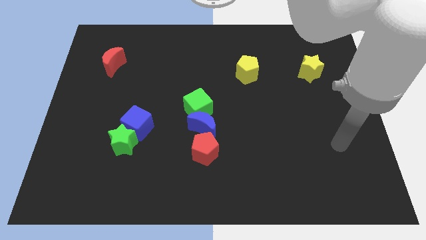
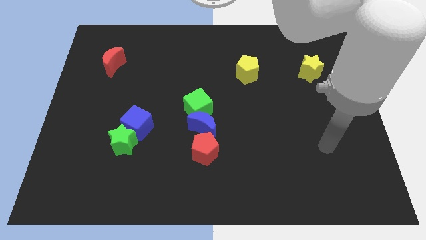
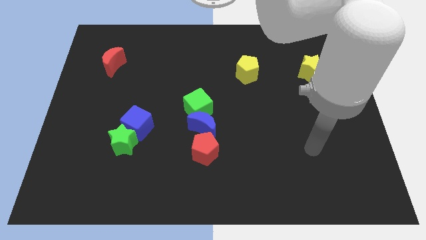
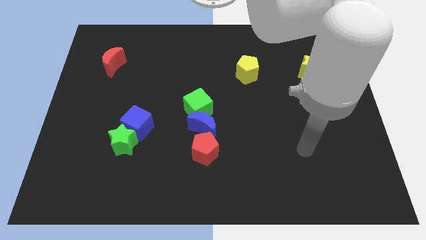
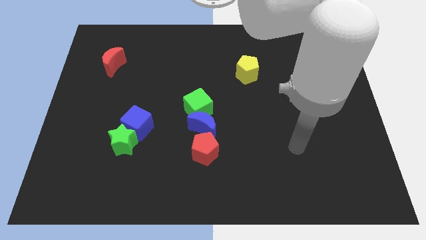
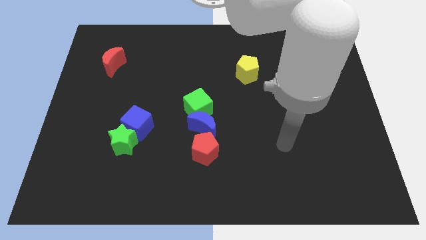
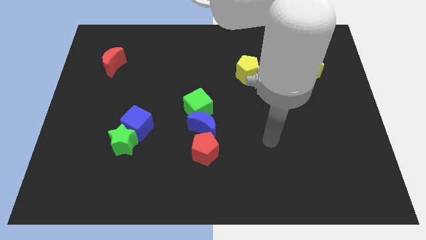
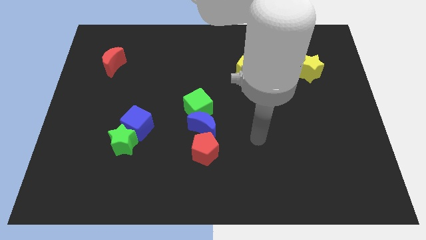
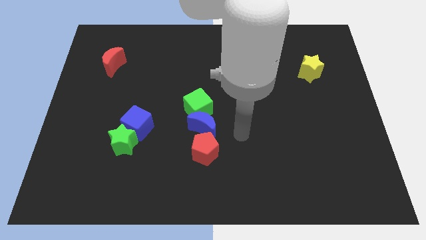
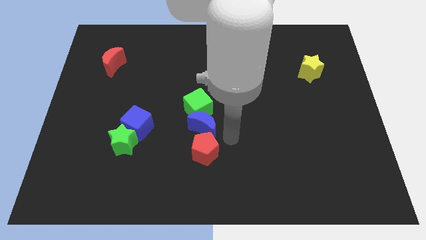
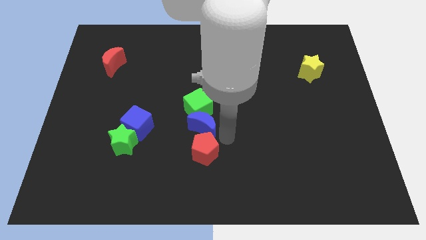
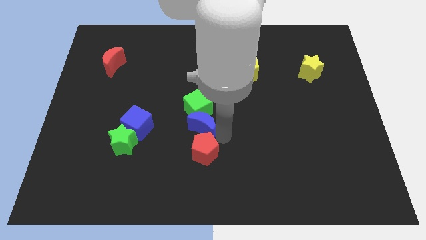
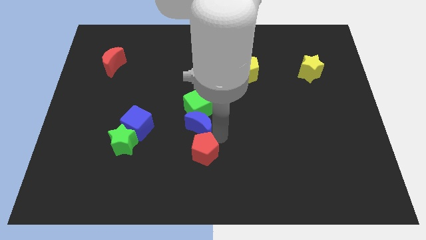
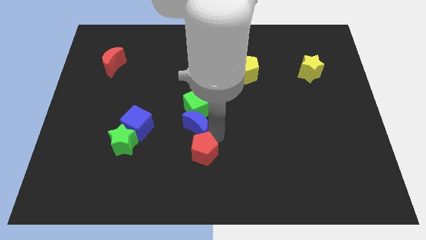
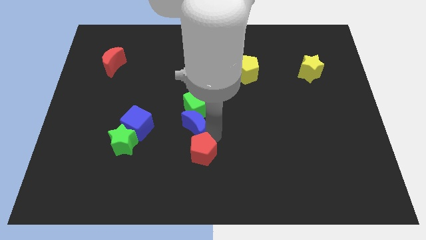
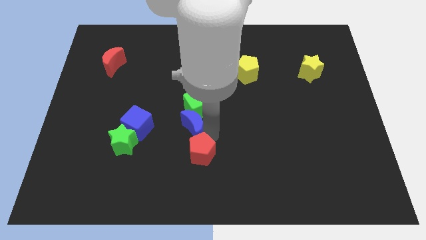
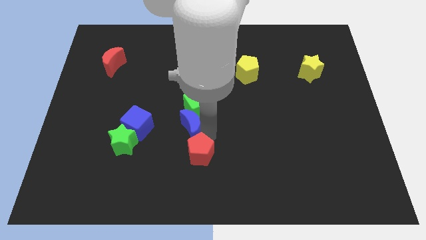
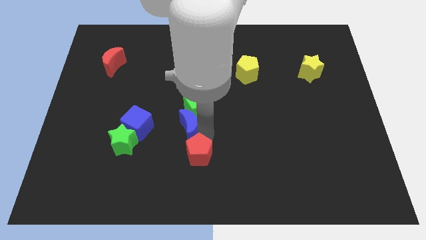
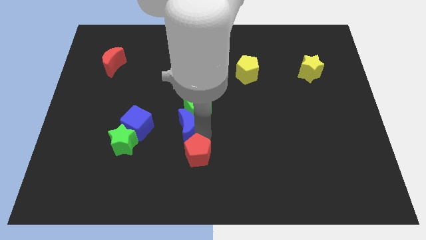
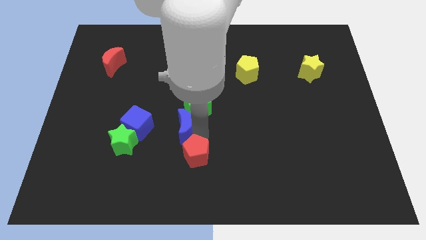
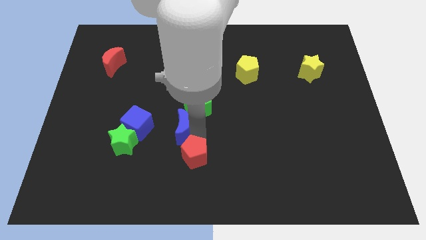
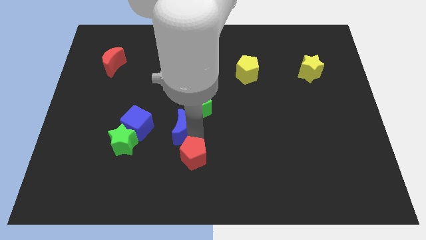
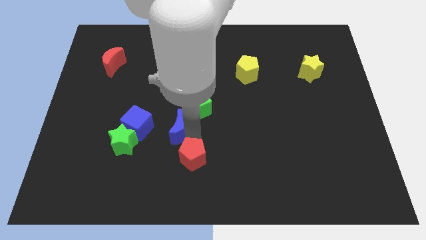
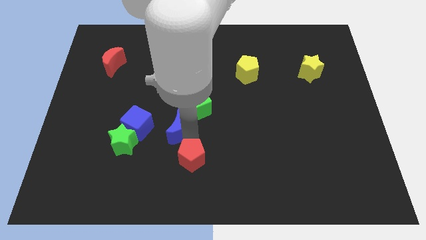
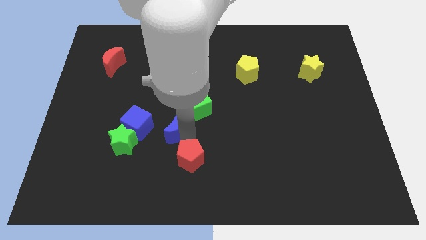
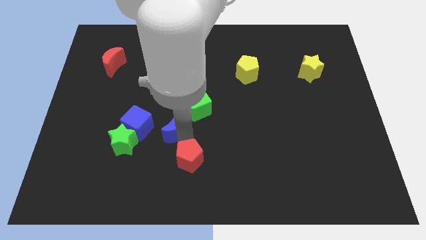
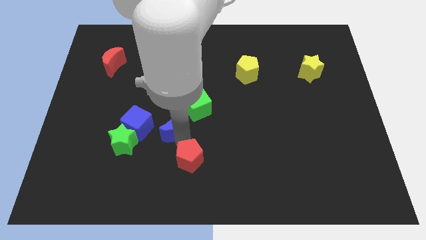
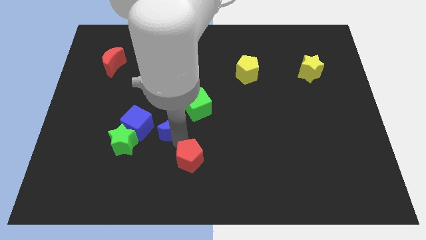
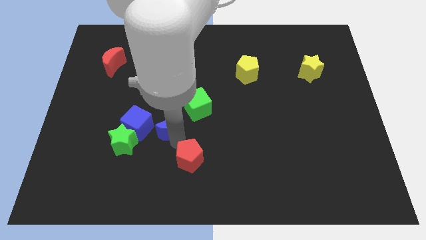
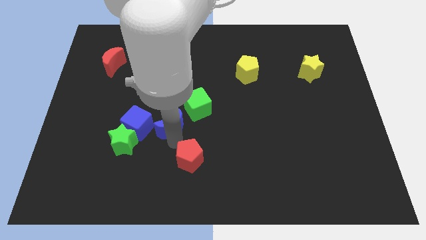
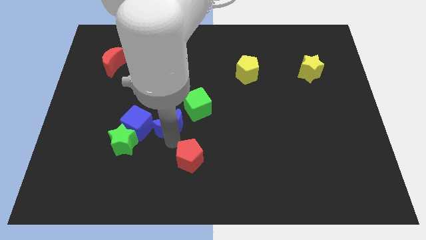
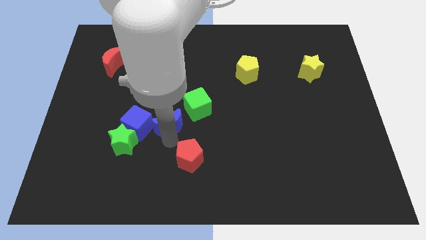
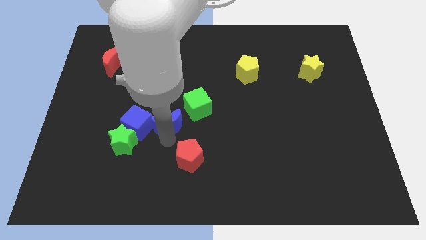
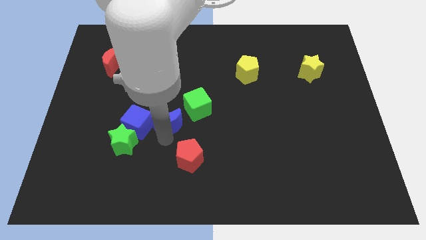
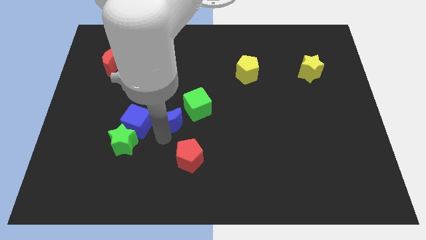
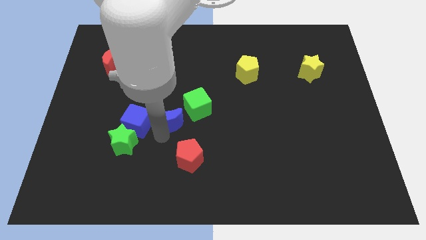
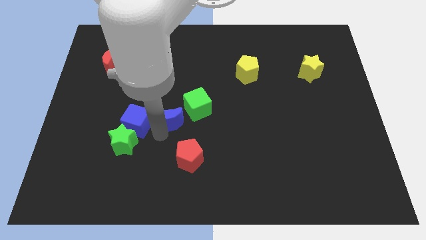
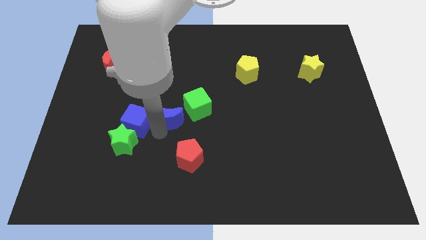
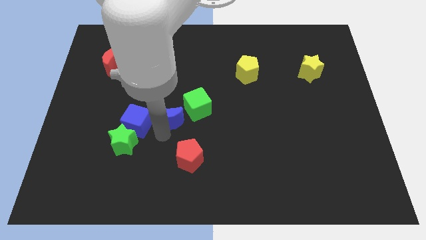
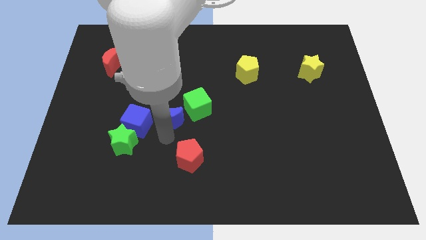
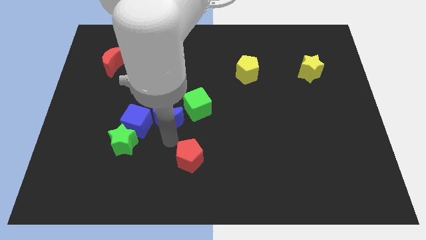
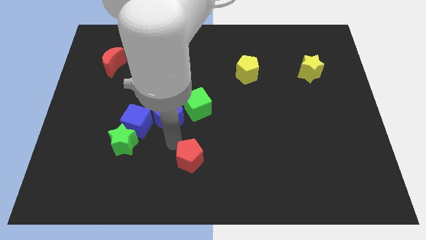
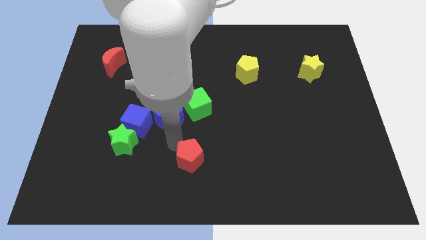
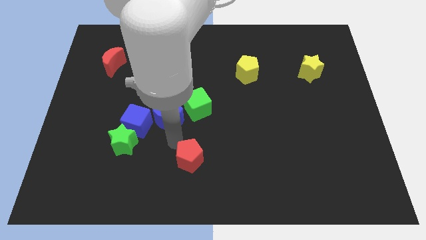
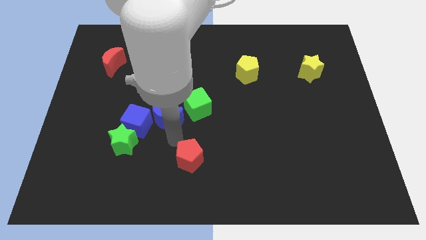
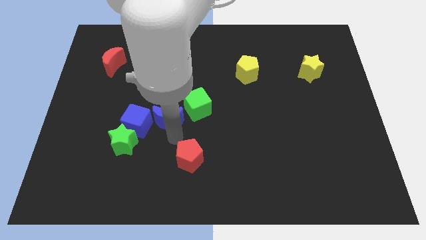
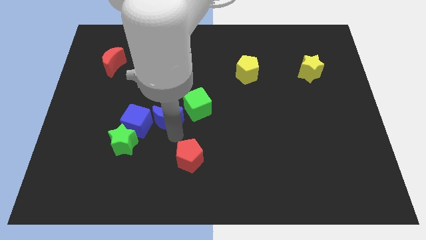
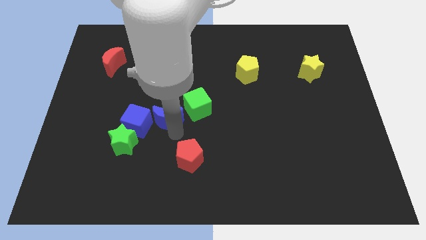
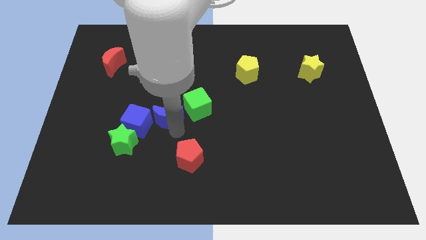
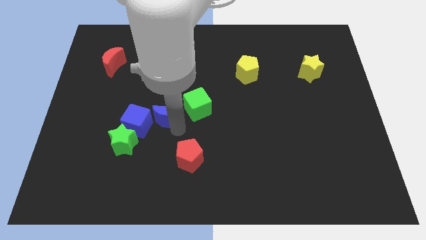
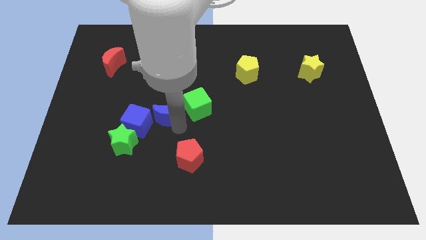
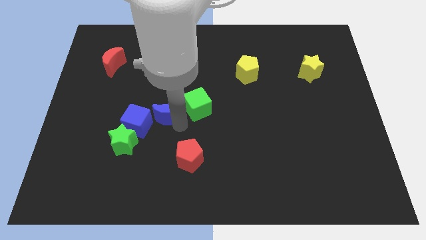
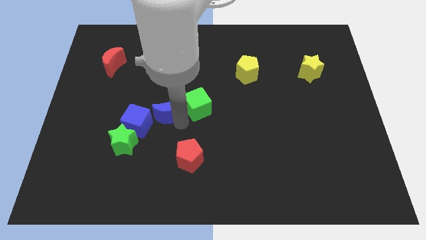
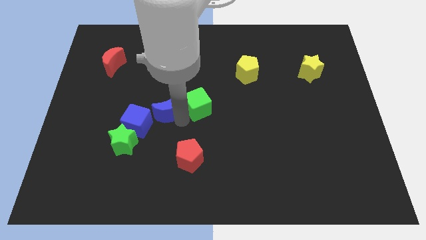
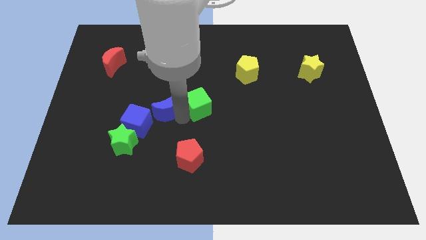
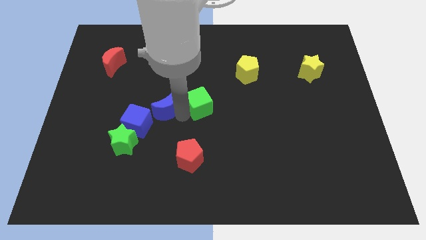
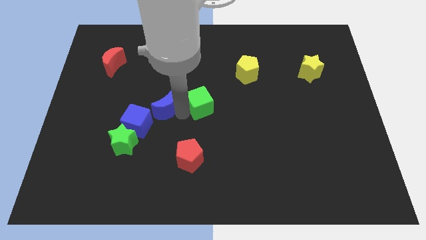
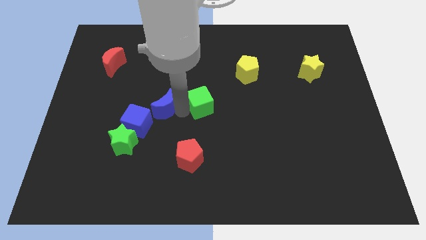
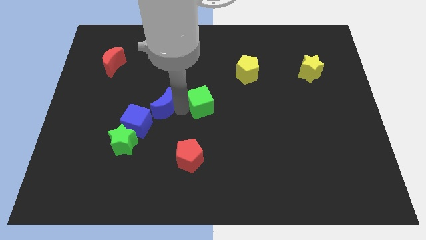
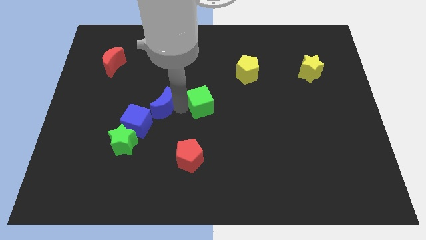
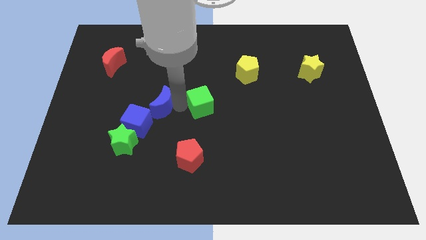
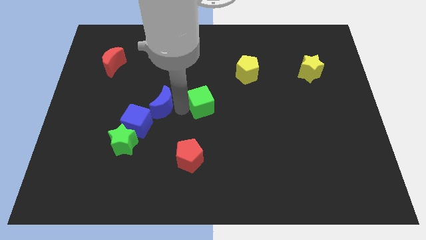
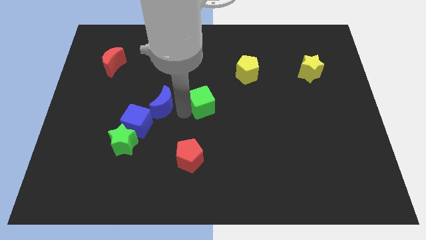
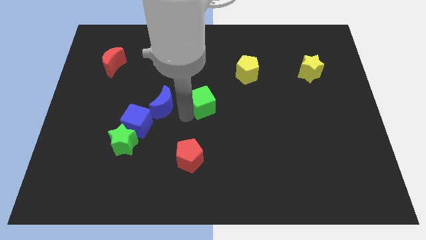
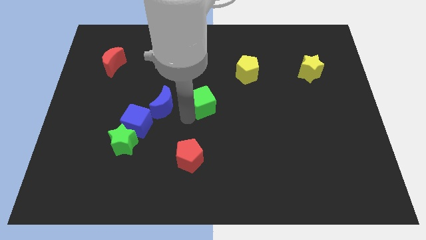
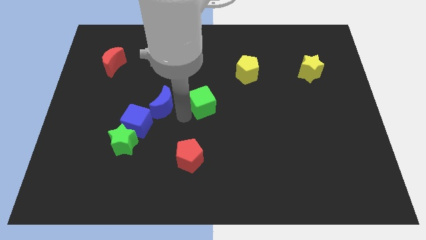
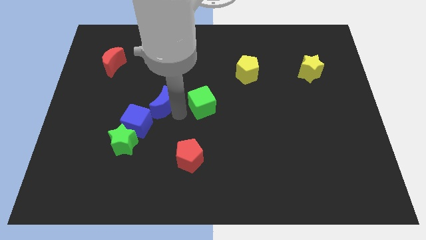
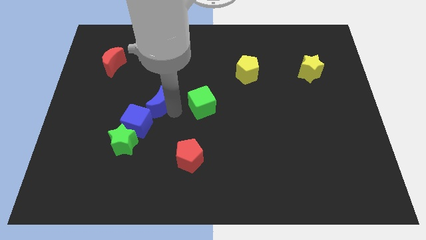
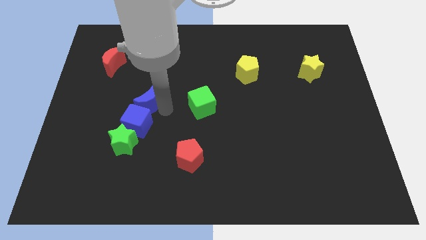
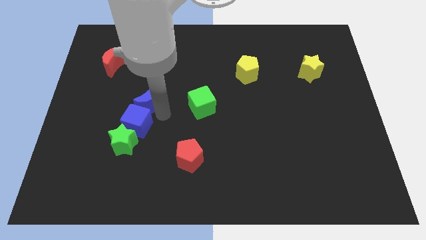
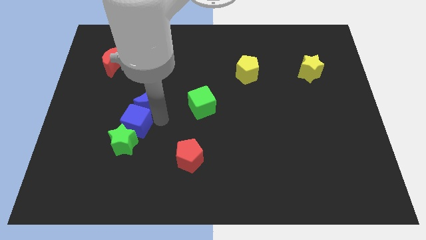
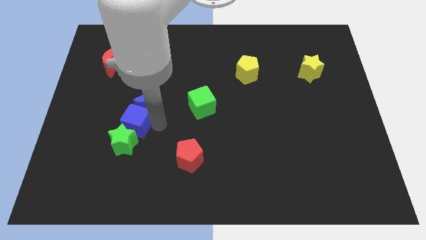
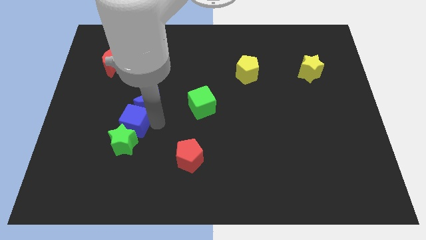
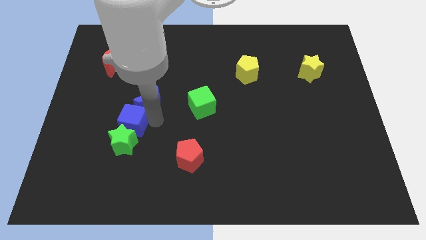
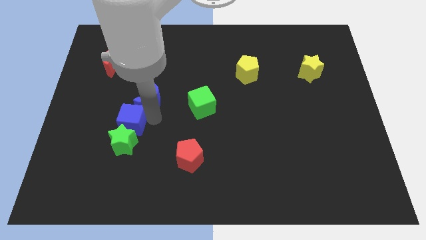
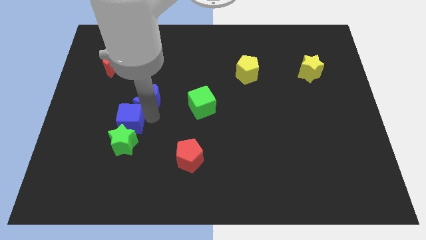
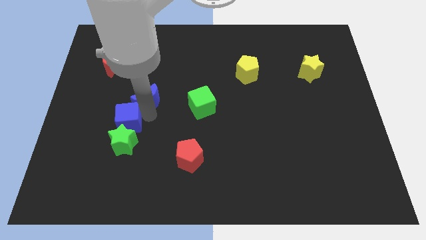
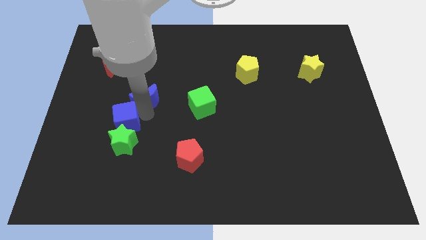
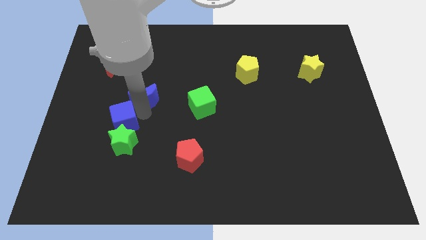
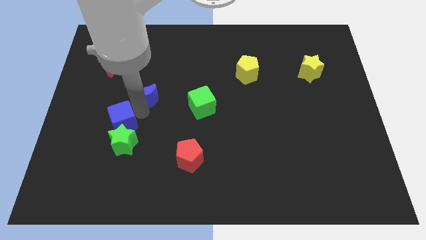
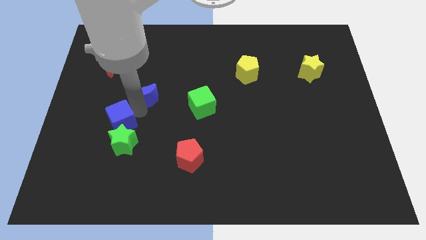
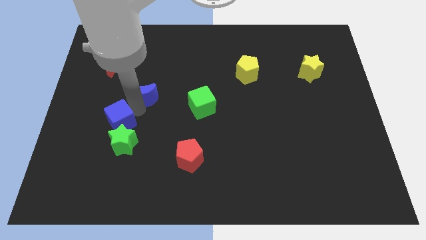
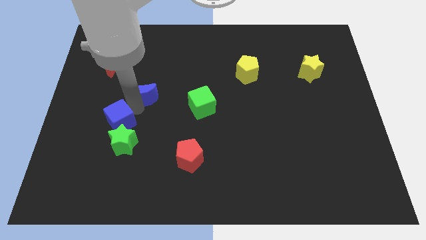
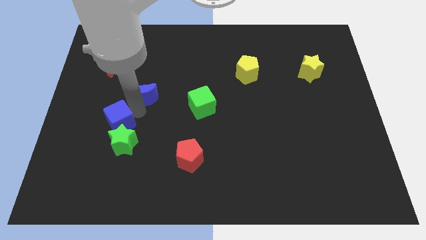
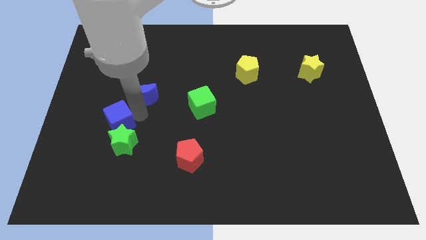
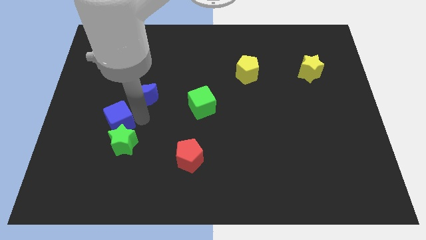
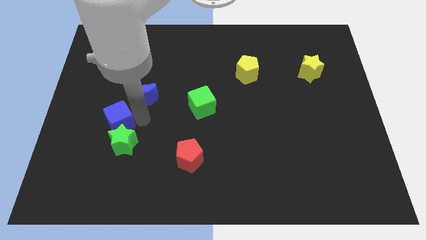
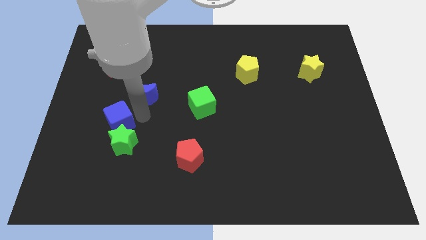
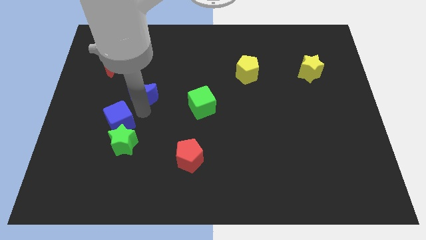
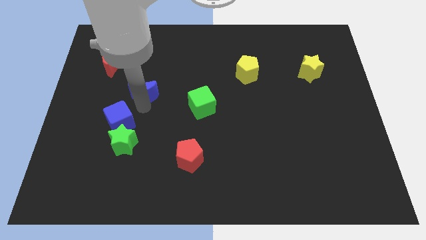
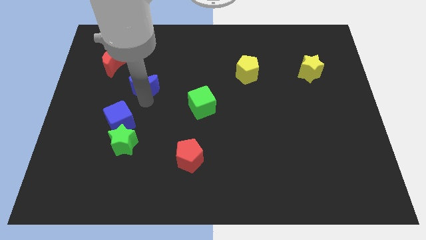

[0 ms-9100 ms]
move the blue moon to the bottom right of the red moon
